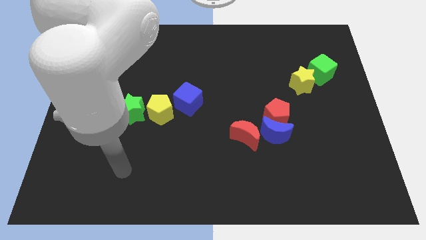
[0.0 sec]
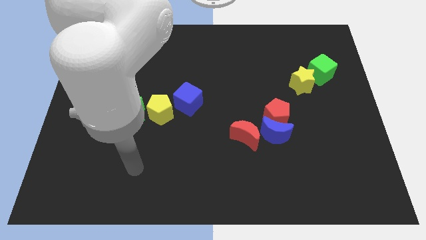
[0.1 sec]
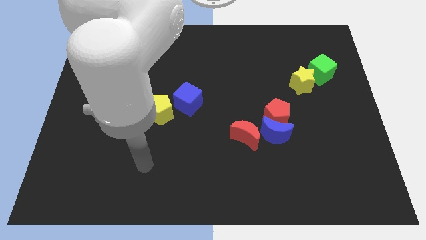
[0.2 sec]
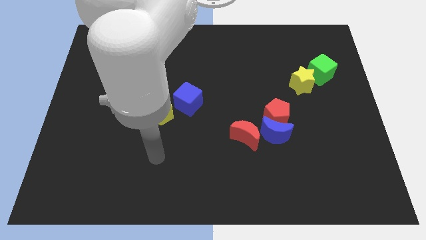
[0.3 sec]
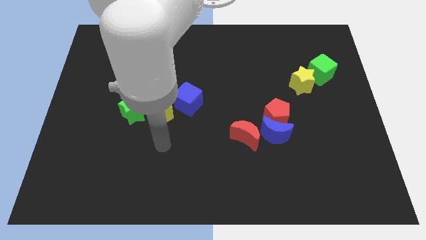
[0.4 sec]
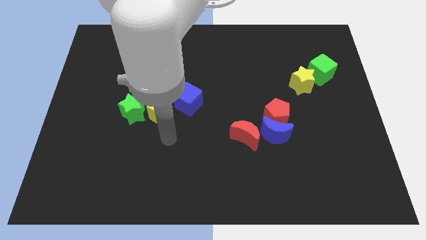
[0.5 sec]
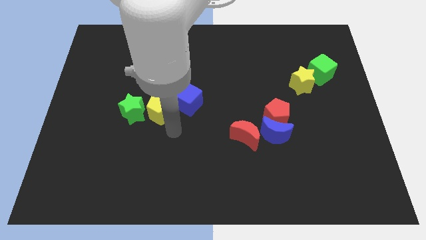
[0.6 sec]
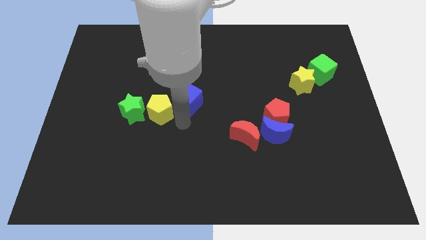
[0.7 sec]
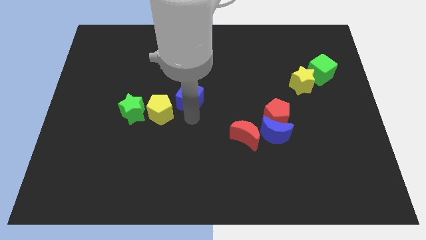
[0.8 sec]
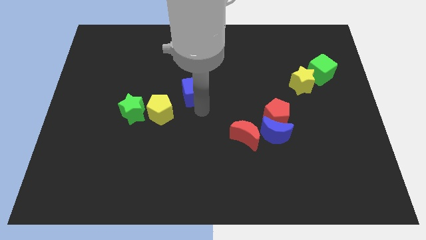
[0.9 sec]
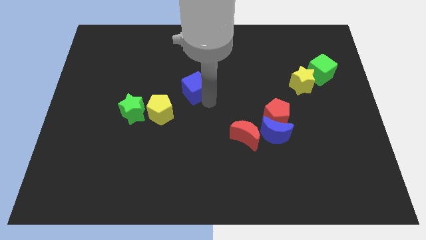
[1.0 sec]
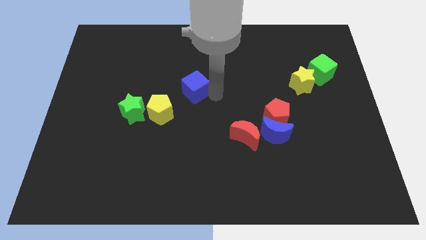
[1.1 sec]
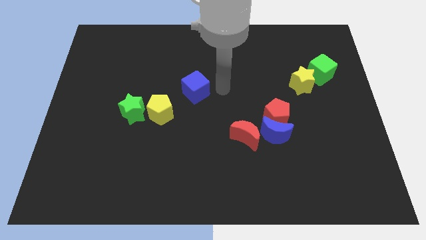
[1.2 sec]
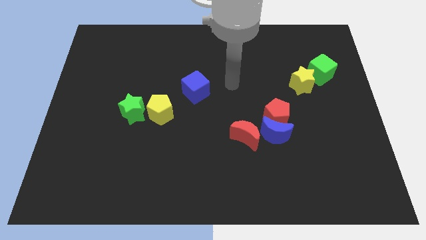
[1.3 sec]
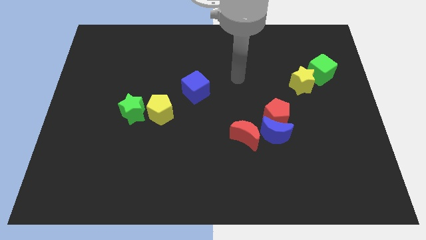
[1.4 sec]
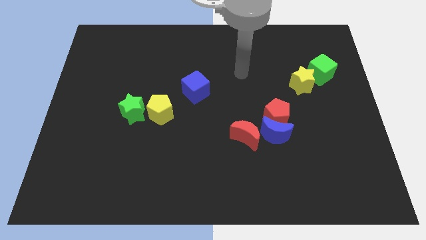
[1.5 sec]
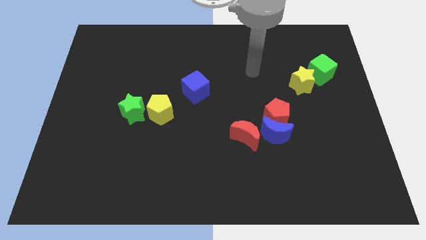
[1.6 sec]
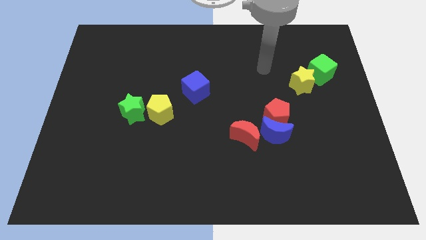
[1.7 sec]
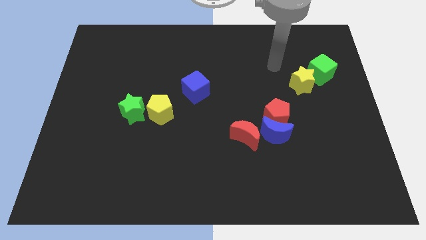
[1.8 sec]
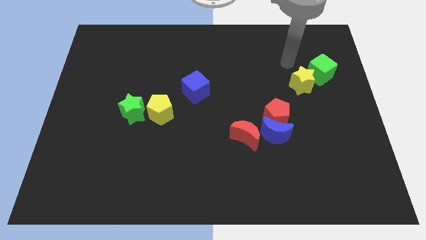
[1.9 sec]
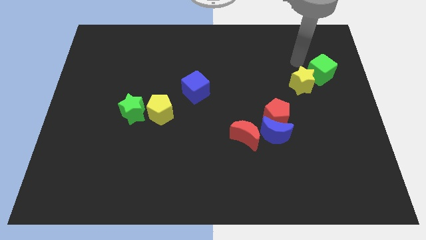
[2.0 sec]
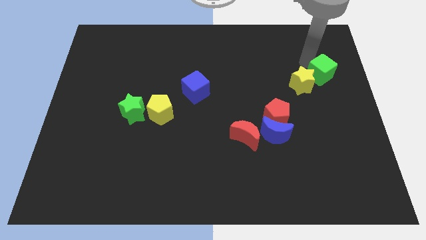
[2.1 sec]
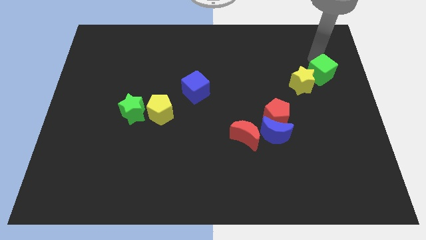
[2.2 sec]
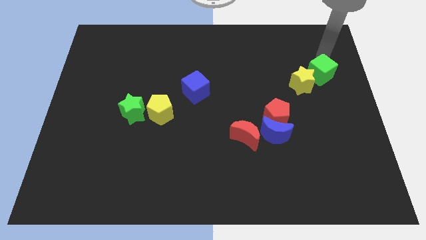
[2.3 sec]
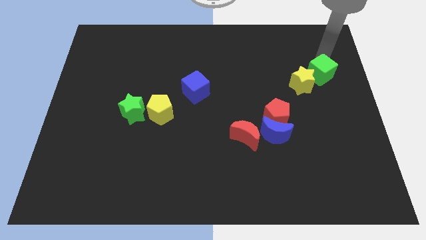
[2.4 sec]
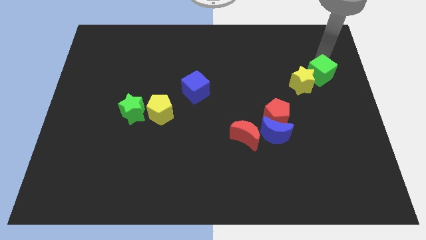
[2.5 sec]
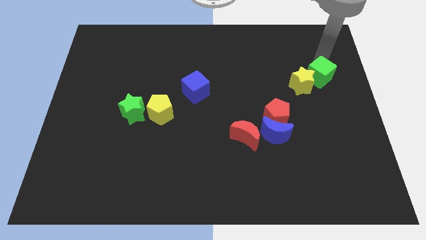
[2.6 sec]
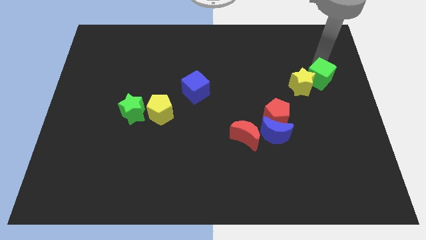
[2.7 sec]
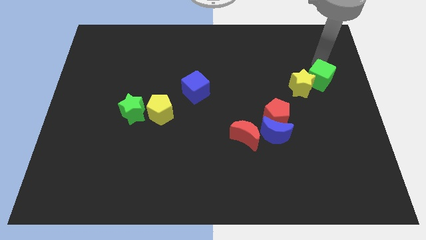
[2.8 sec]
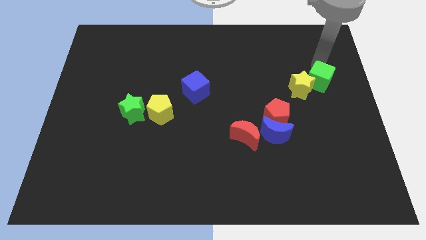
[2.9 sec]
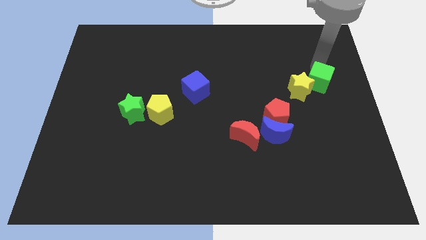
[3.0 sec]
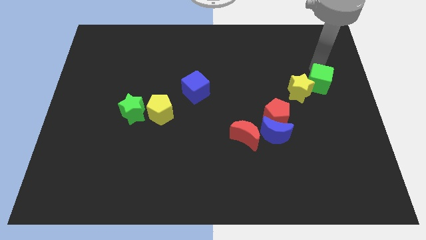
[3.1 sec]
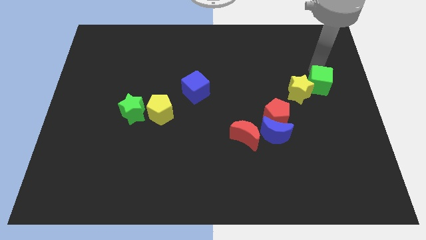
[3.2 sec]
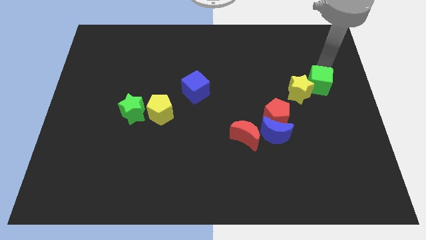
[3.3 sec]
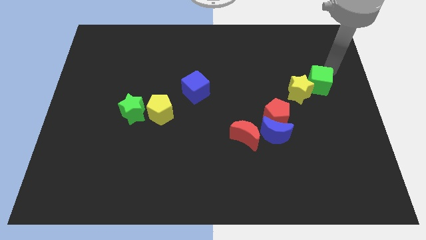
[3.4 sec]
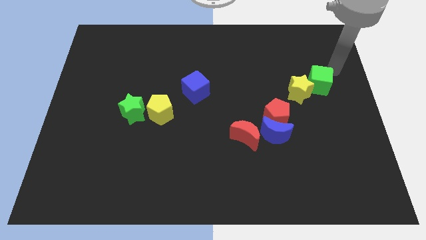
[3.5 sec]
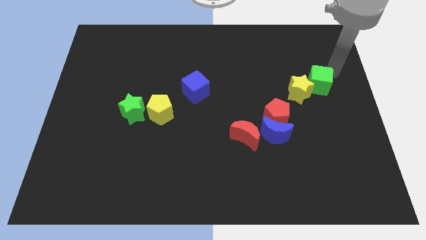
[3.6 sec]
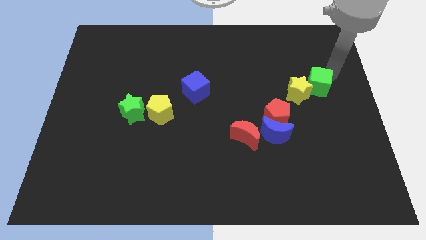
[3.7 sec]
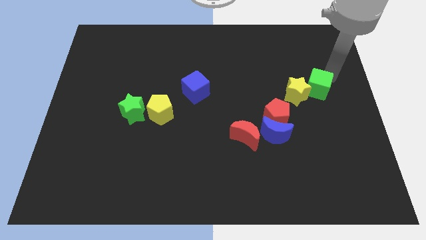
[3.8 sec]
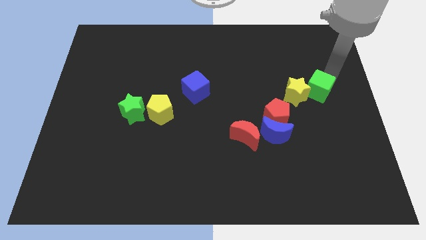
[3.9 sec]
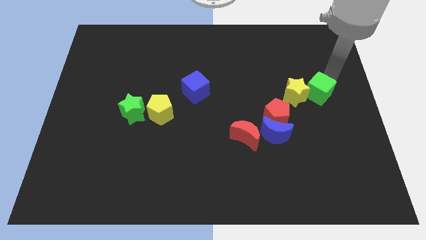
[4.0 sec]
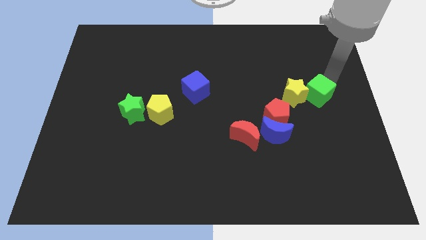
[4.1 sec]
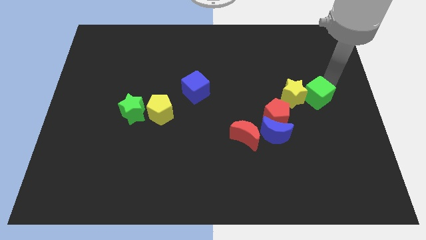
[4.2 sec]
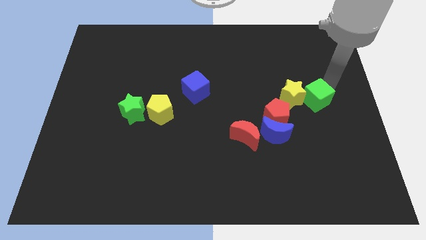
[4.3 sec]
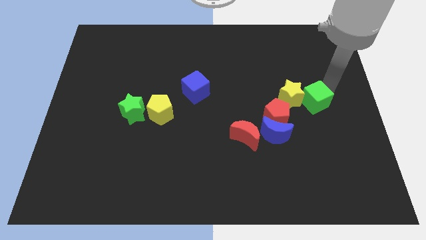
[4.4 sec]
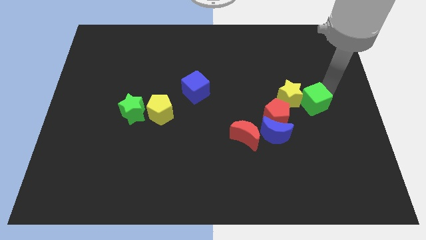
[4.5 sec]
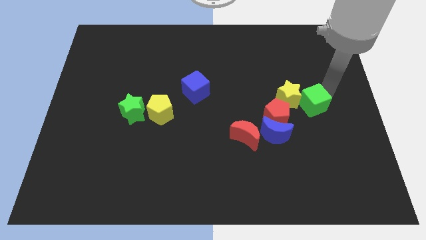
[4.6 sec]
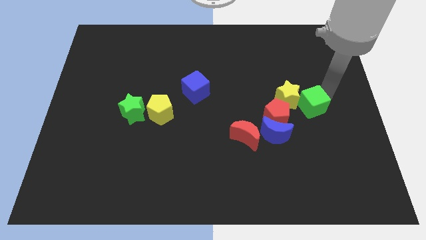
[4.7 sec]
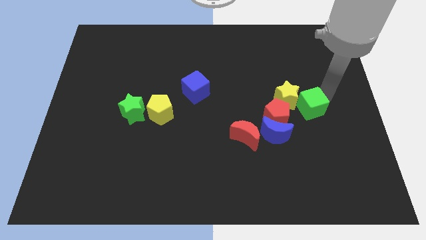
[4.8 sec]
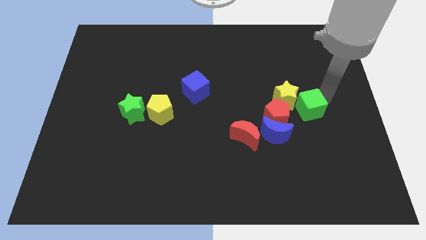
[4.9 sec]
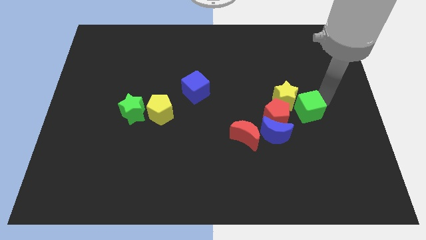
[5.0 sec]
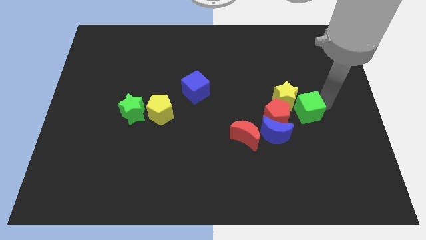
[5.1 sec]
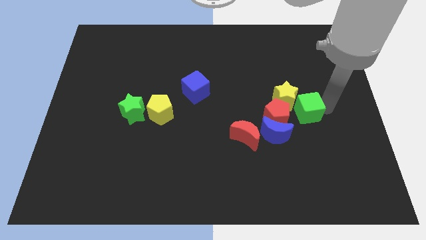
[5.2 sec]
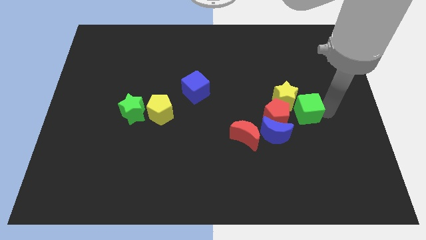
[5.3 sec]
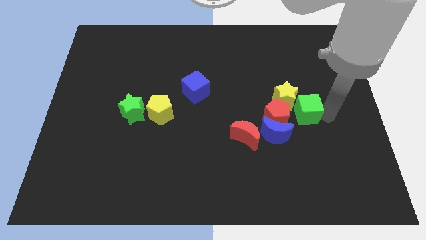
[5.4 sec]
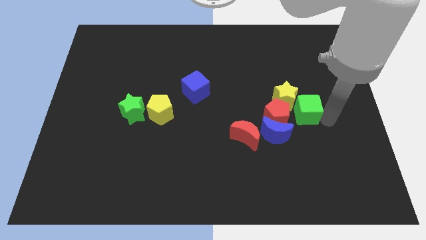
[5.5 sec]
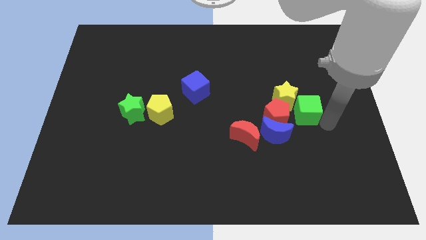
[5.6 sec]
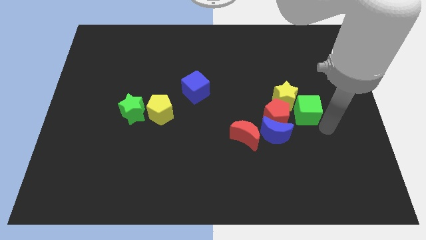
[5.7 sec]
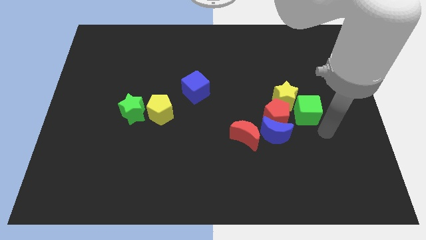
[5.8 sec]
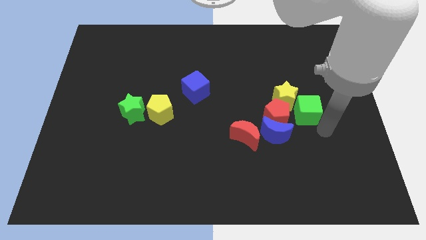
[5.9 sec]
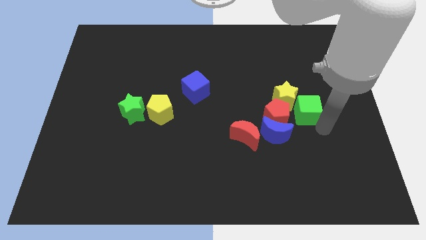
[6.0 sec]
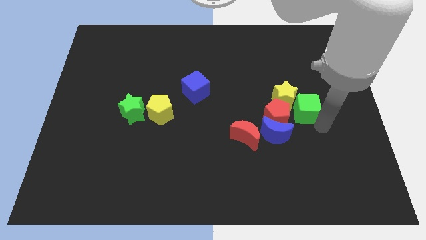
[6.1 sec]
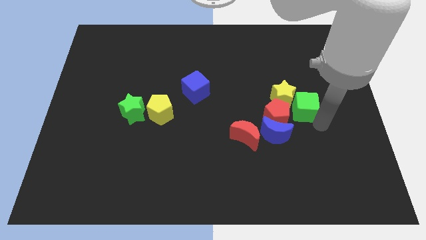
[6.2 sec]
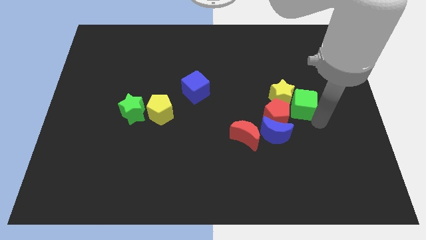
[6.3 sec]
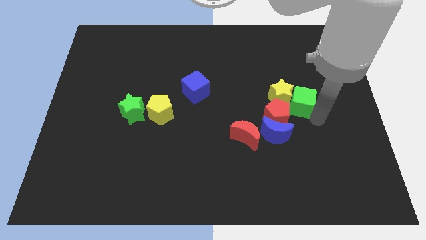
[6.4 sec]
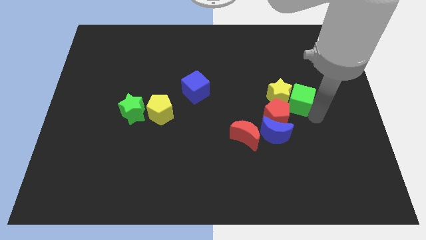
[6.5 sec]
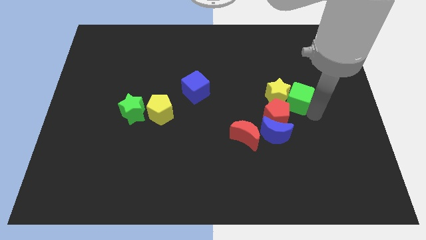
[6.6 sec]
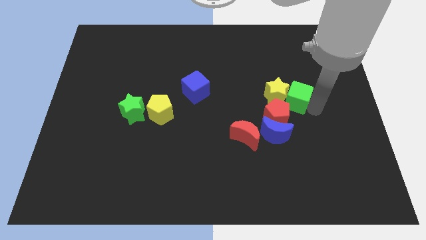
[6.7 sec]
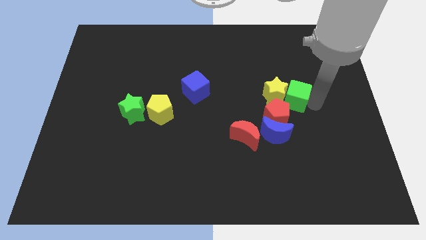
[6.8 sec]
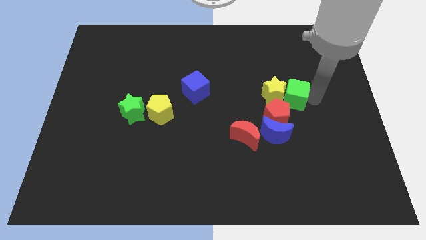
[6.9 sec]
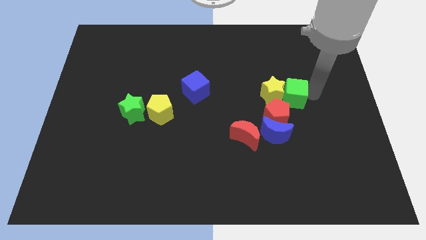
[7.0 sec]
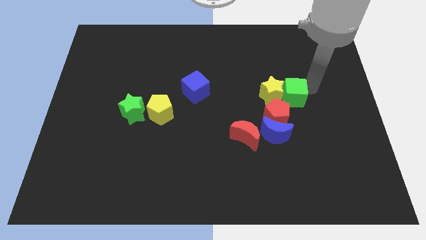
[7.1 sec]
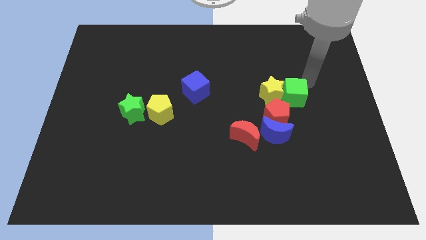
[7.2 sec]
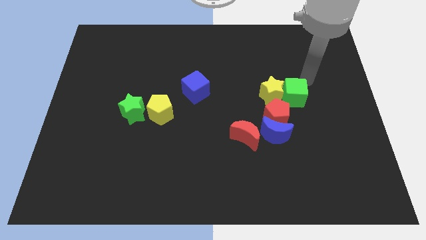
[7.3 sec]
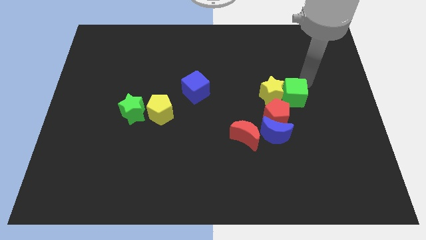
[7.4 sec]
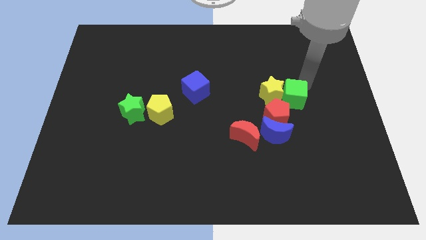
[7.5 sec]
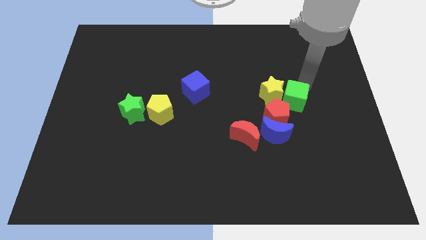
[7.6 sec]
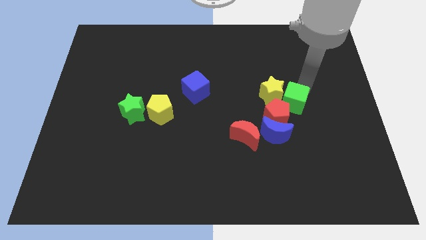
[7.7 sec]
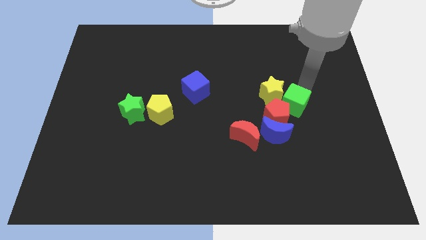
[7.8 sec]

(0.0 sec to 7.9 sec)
slide the green cube next to the red pentagon
